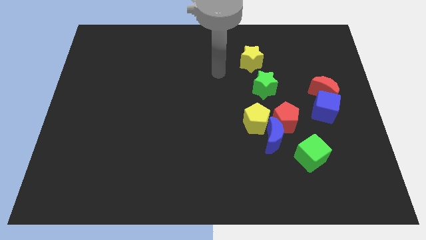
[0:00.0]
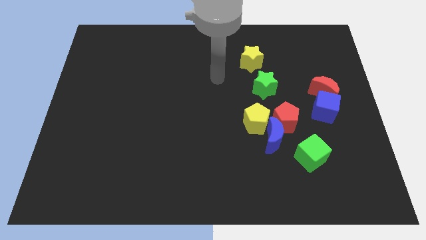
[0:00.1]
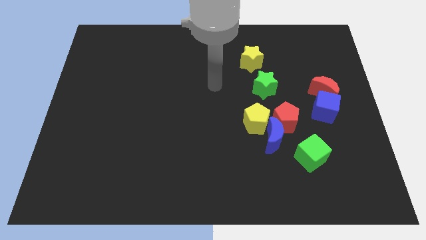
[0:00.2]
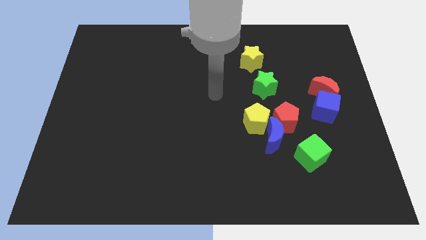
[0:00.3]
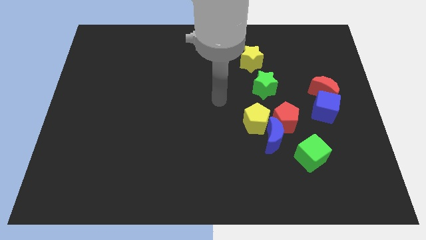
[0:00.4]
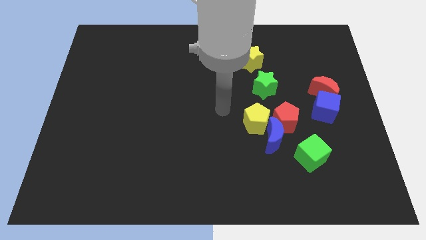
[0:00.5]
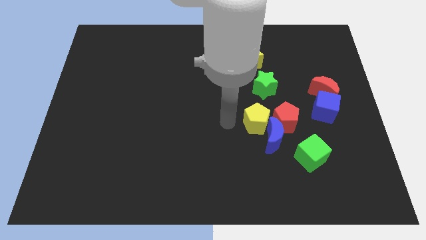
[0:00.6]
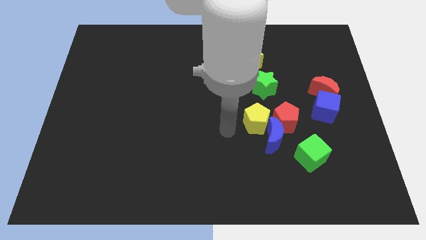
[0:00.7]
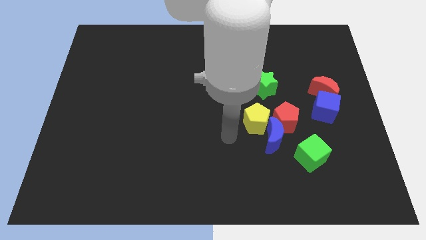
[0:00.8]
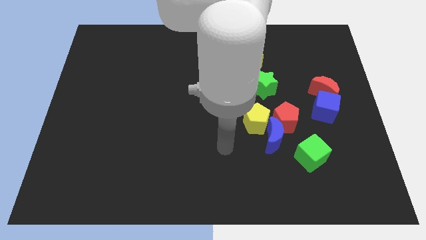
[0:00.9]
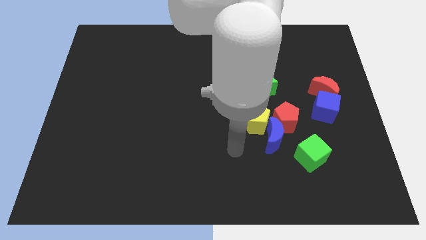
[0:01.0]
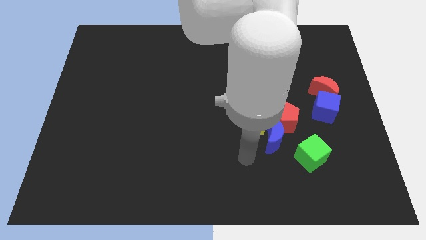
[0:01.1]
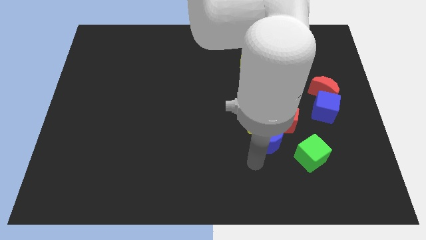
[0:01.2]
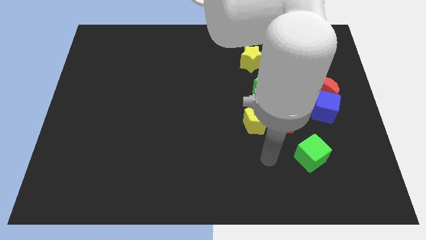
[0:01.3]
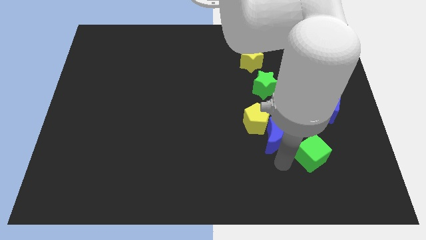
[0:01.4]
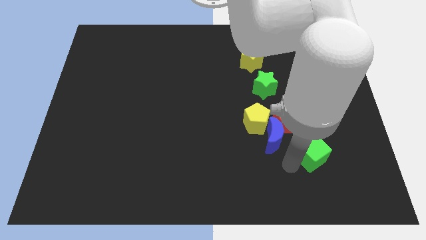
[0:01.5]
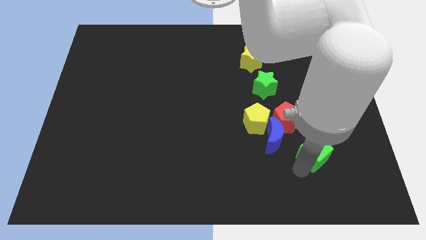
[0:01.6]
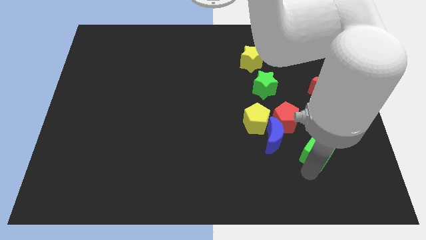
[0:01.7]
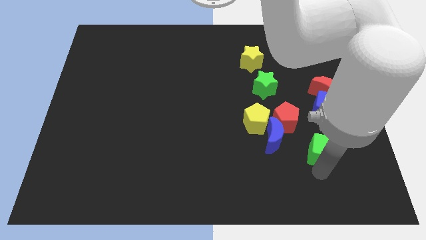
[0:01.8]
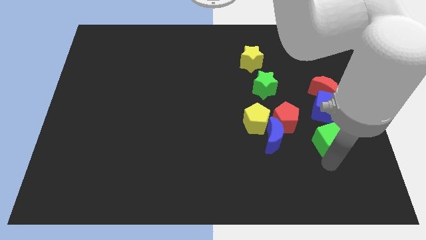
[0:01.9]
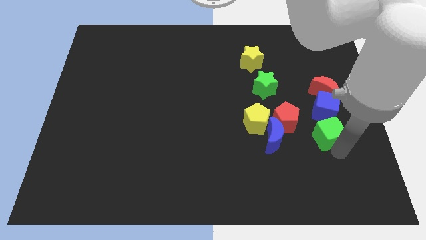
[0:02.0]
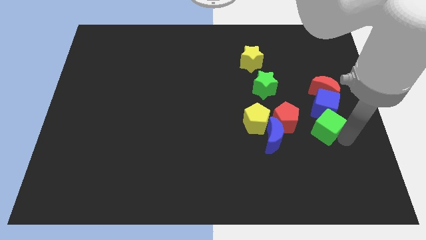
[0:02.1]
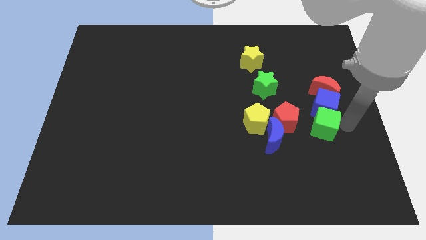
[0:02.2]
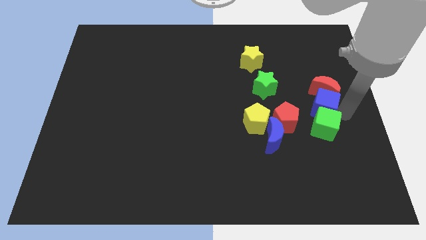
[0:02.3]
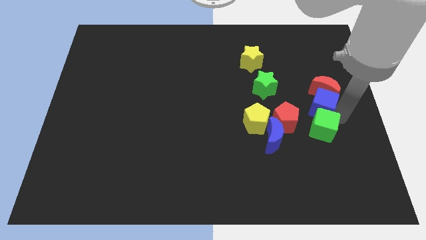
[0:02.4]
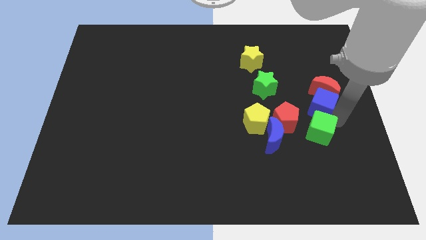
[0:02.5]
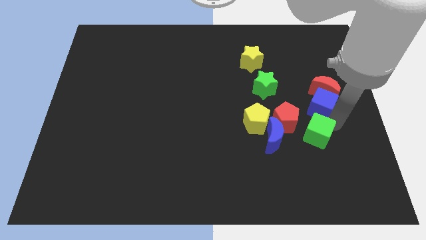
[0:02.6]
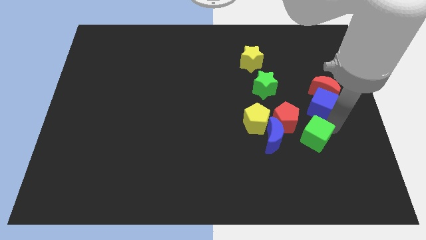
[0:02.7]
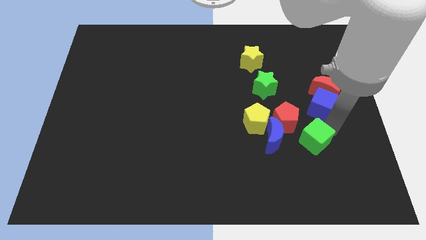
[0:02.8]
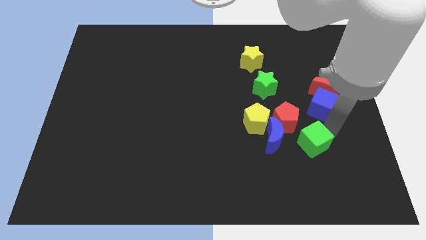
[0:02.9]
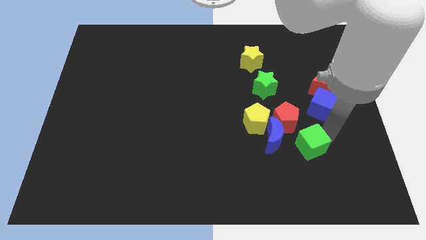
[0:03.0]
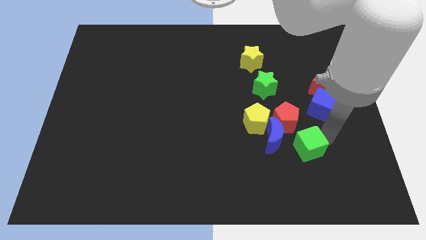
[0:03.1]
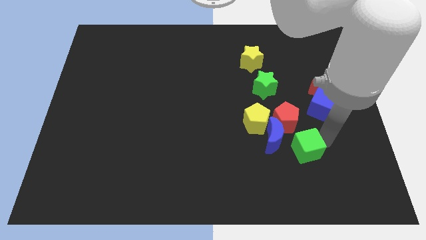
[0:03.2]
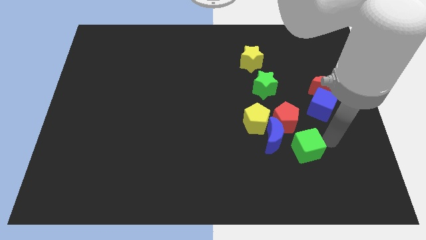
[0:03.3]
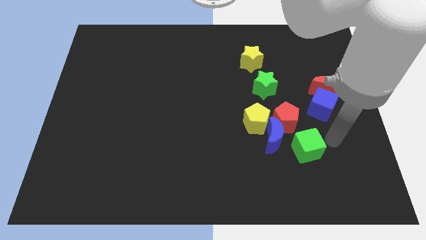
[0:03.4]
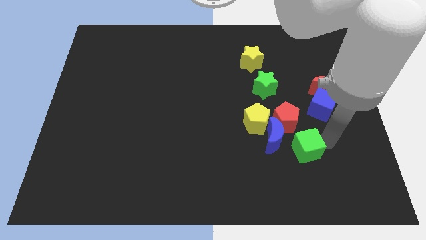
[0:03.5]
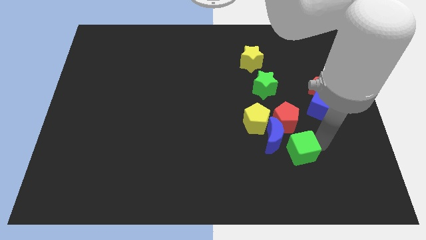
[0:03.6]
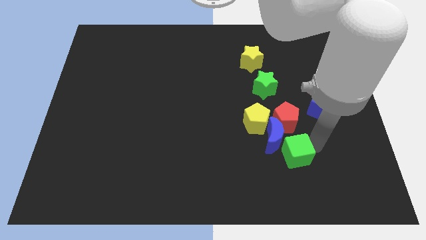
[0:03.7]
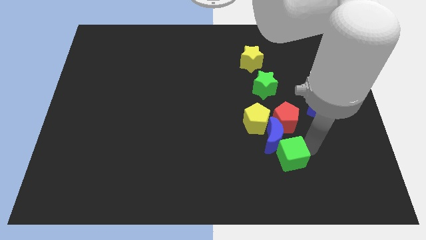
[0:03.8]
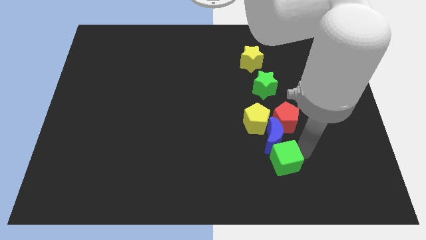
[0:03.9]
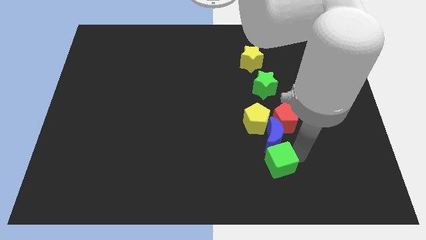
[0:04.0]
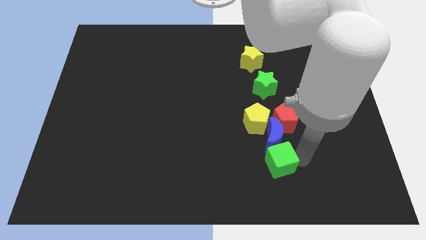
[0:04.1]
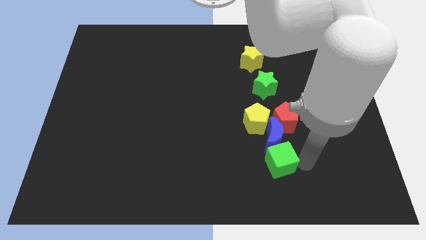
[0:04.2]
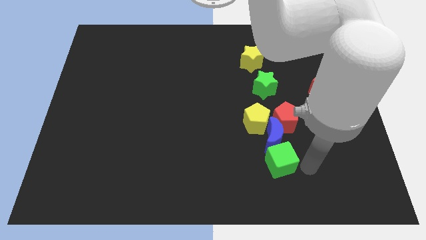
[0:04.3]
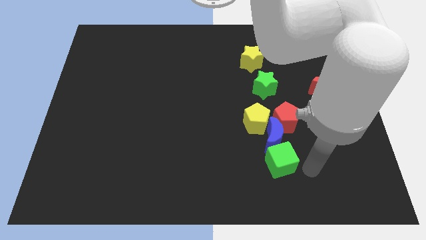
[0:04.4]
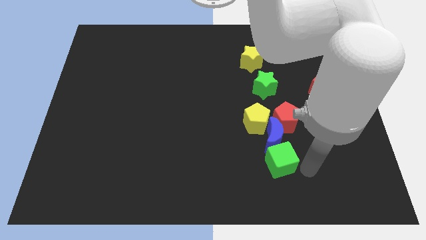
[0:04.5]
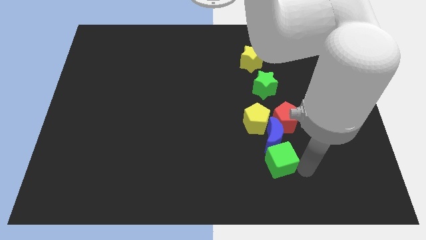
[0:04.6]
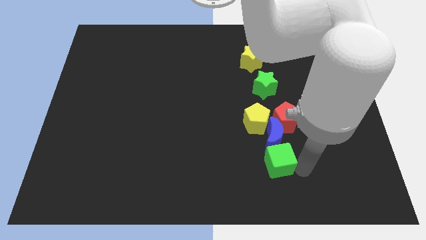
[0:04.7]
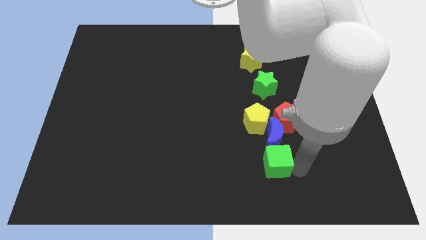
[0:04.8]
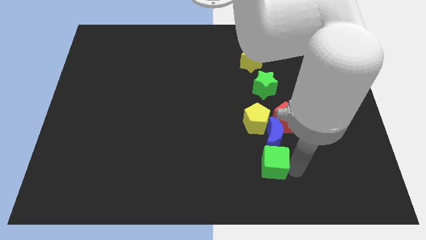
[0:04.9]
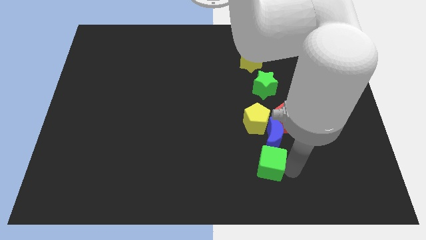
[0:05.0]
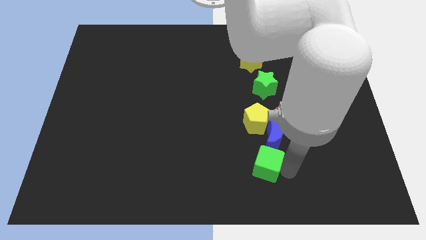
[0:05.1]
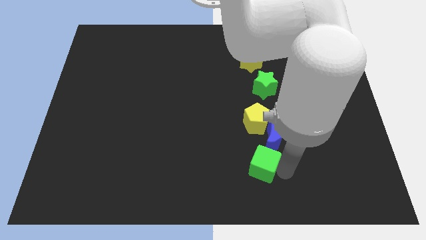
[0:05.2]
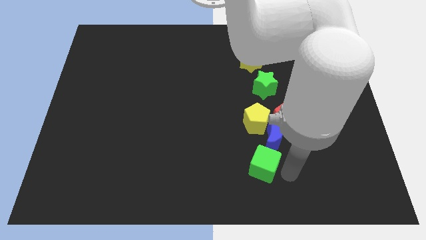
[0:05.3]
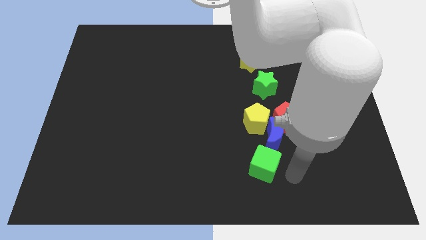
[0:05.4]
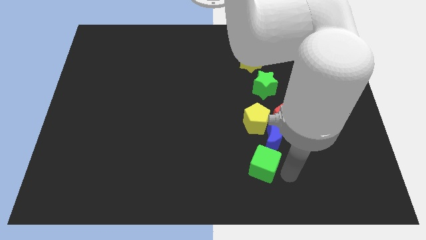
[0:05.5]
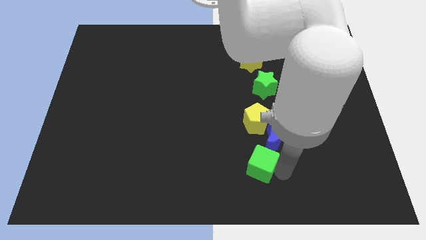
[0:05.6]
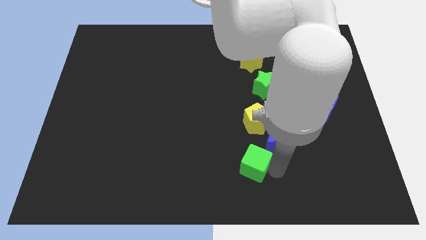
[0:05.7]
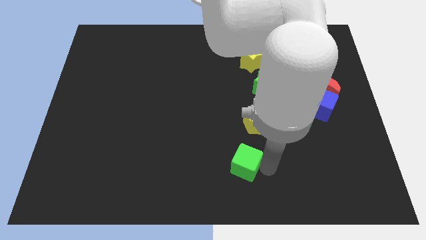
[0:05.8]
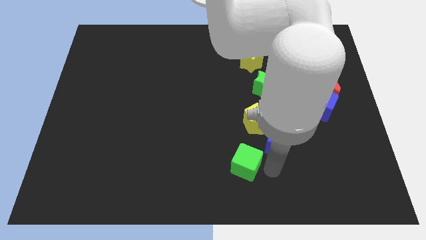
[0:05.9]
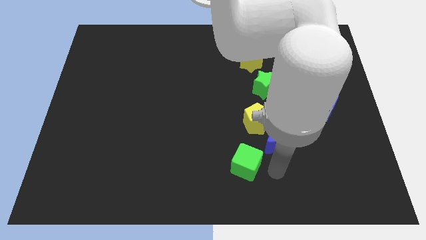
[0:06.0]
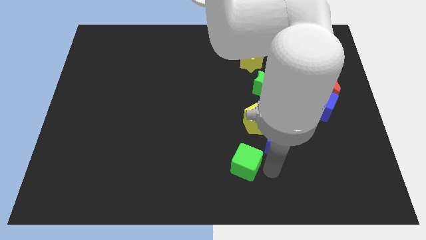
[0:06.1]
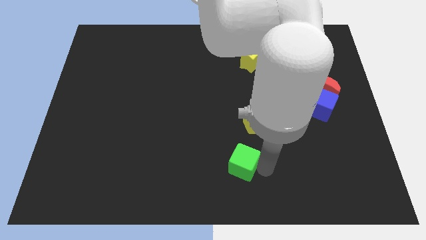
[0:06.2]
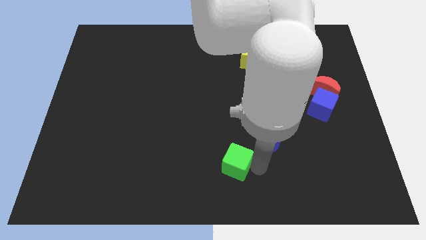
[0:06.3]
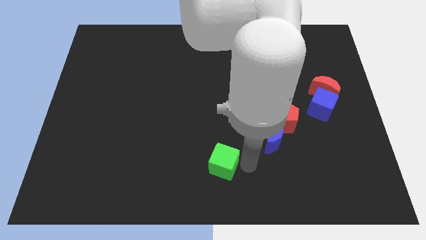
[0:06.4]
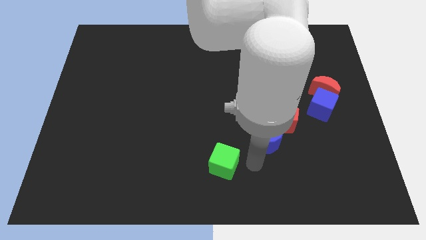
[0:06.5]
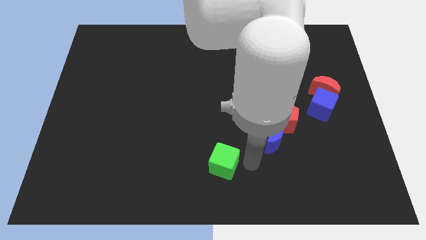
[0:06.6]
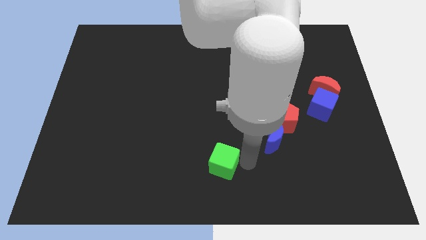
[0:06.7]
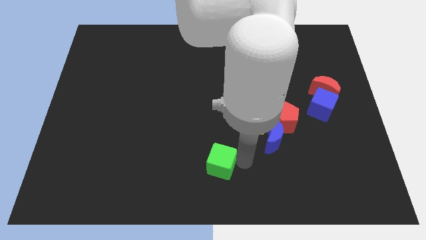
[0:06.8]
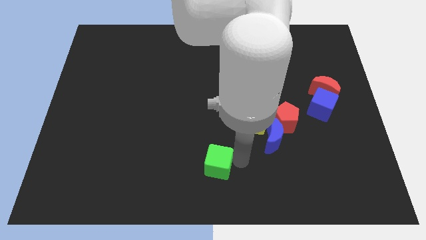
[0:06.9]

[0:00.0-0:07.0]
slide the green cube left

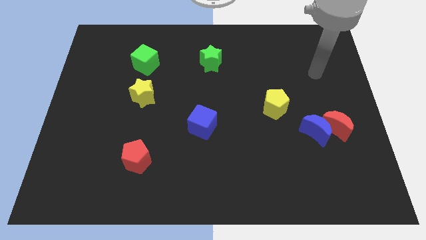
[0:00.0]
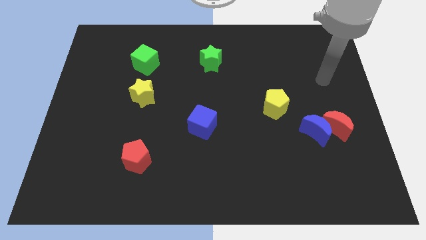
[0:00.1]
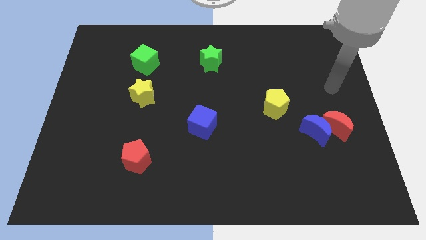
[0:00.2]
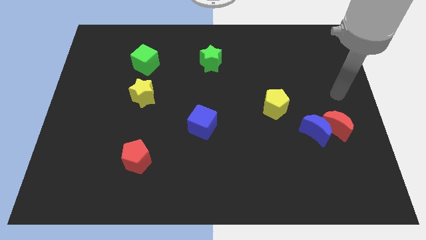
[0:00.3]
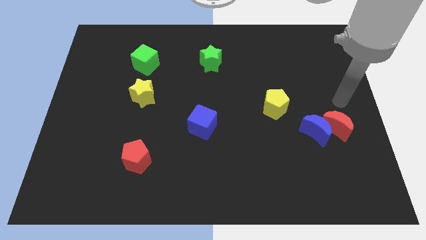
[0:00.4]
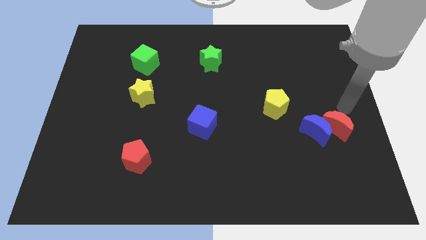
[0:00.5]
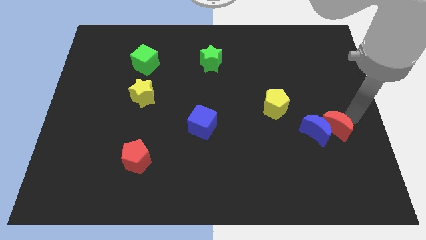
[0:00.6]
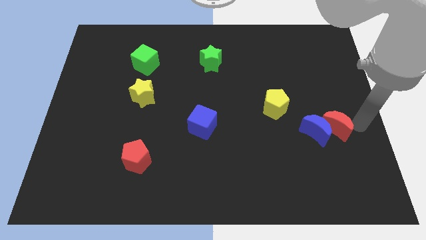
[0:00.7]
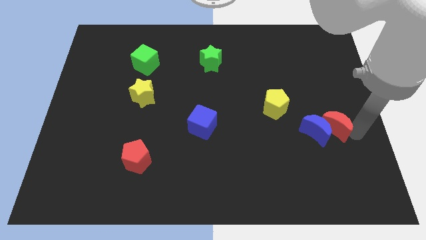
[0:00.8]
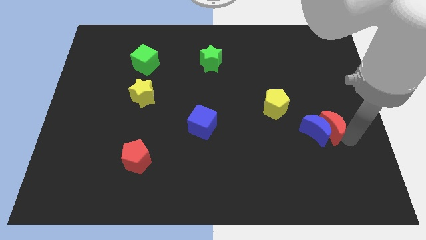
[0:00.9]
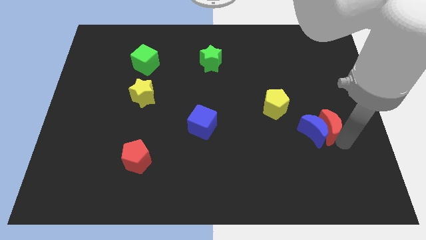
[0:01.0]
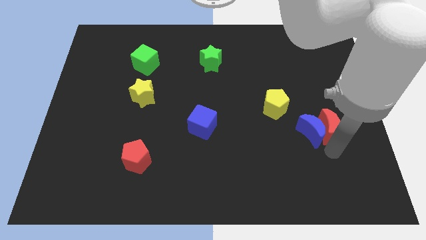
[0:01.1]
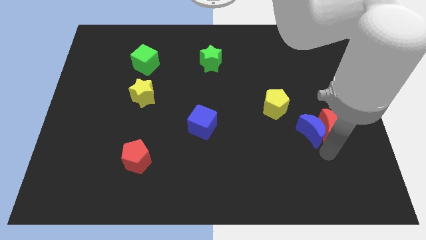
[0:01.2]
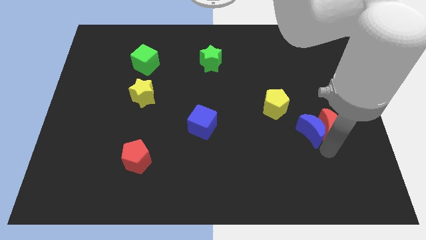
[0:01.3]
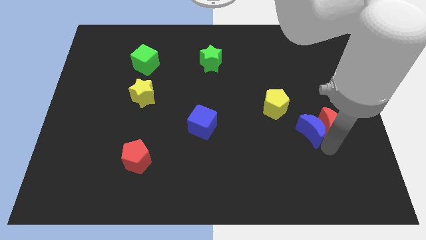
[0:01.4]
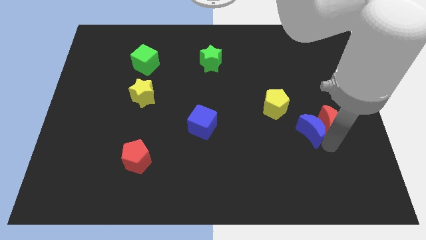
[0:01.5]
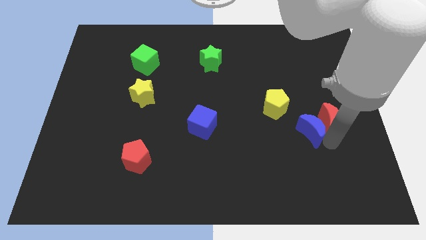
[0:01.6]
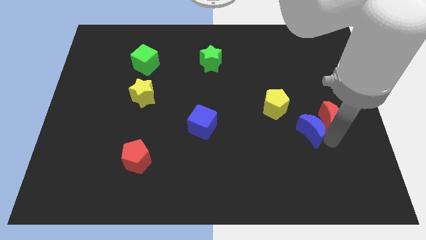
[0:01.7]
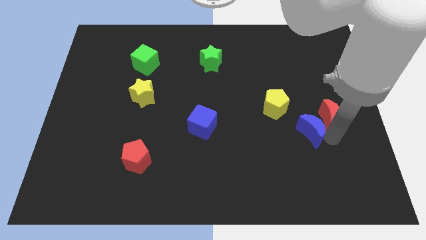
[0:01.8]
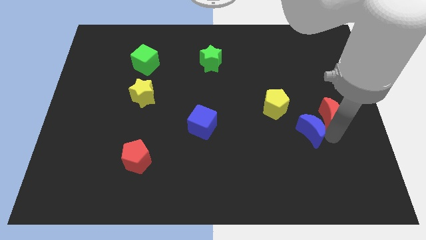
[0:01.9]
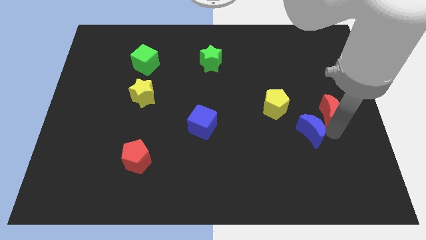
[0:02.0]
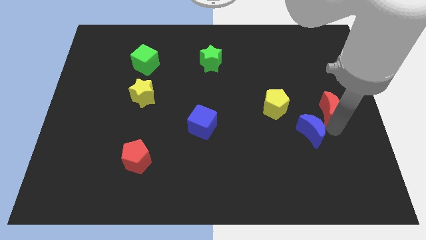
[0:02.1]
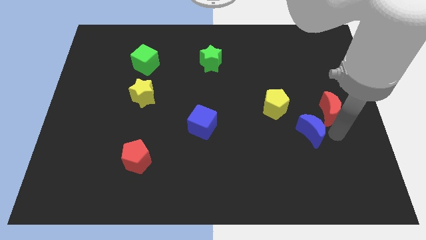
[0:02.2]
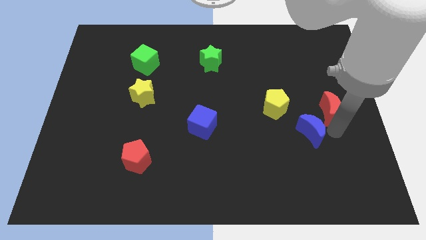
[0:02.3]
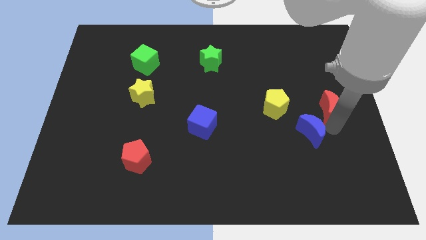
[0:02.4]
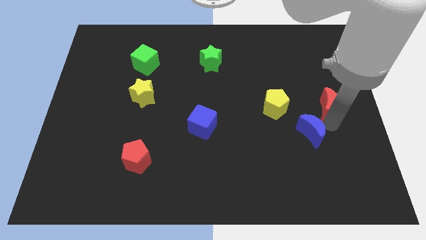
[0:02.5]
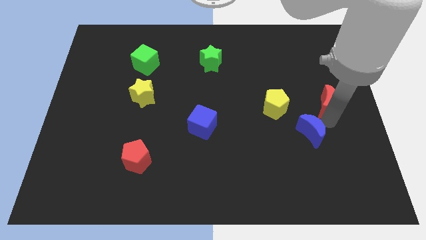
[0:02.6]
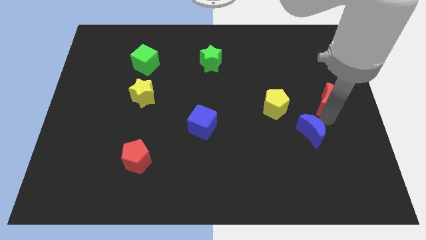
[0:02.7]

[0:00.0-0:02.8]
push the red moon upwards slightly
